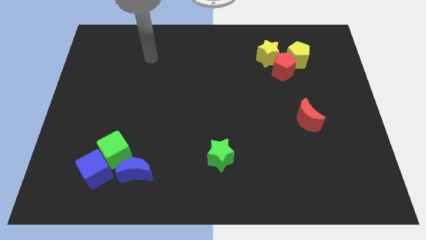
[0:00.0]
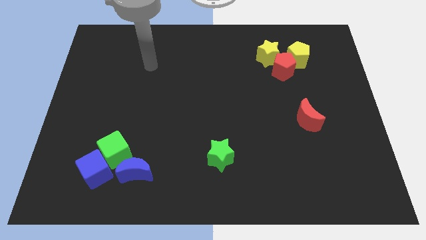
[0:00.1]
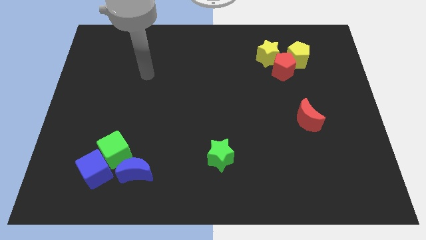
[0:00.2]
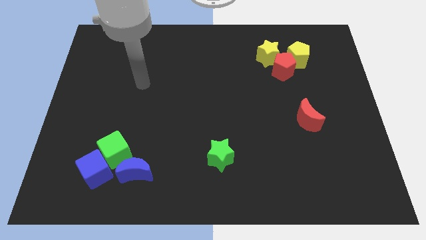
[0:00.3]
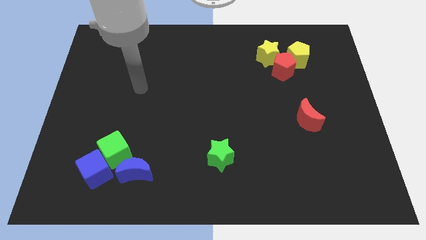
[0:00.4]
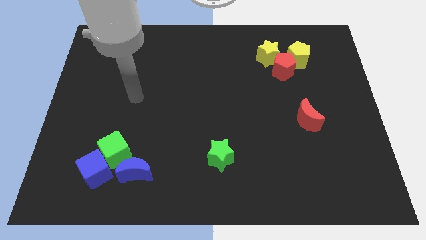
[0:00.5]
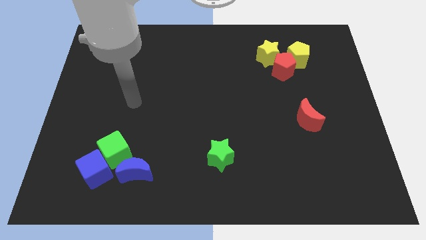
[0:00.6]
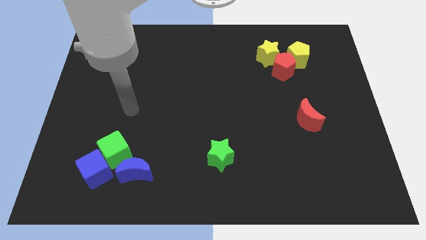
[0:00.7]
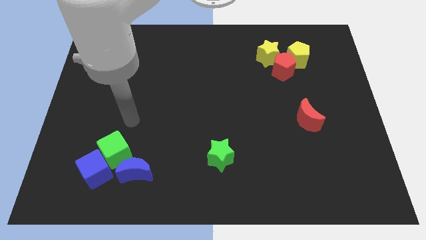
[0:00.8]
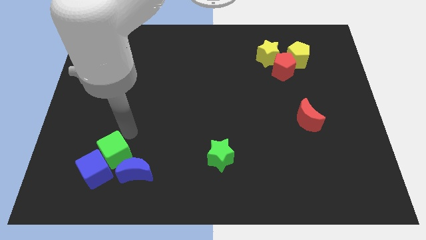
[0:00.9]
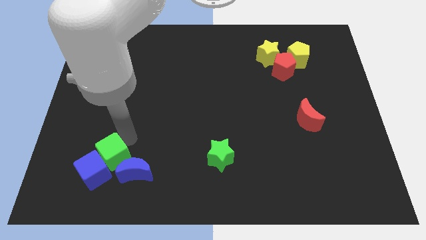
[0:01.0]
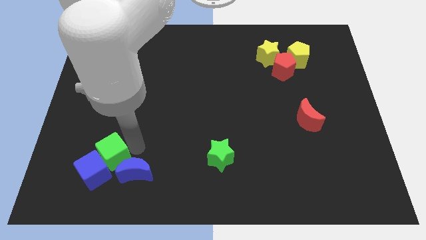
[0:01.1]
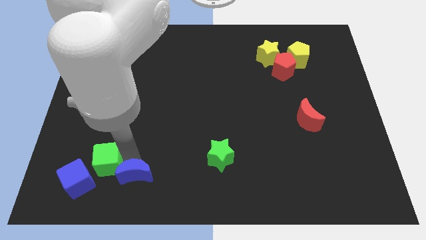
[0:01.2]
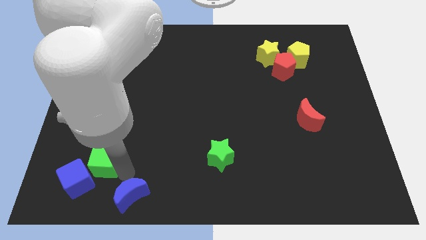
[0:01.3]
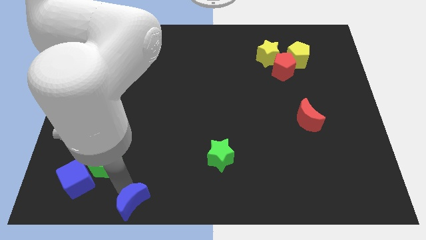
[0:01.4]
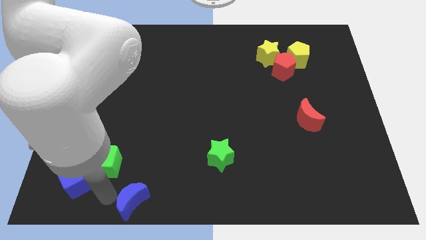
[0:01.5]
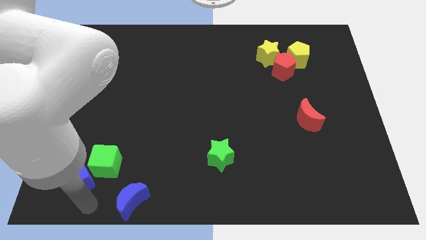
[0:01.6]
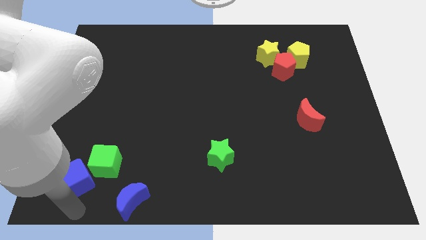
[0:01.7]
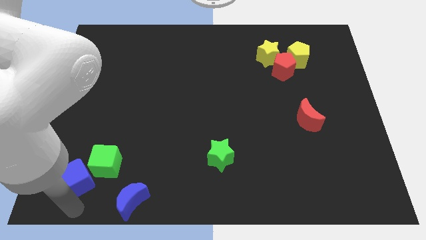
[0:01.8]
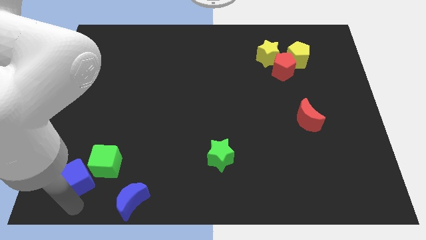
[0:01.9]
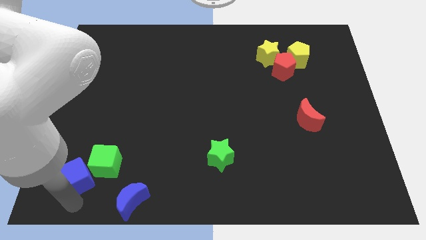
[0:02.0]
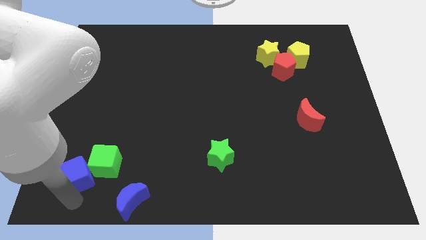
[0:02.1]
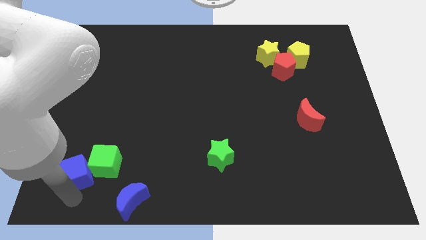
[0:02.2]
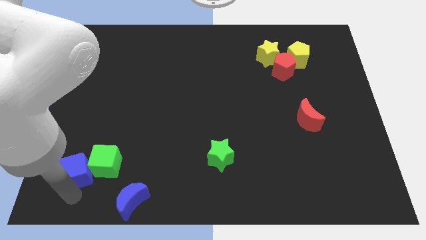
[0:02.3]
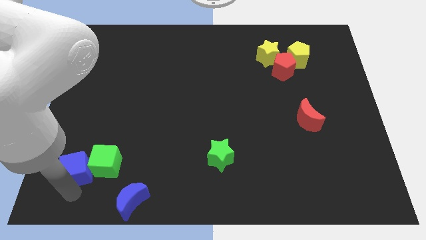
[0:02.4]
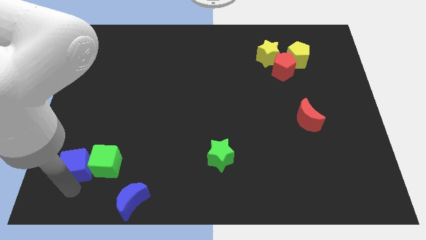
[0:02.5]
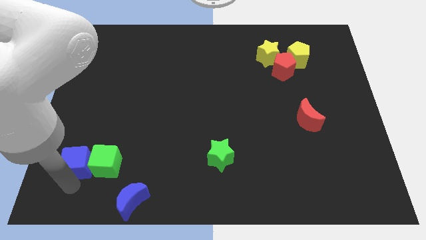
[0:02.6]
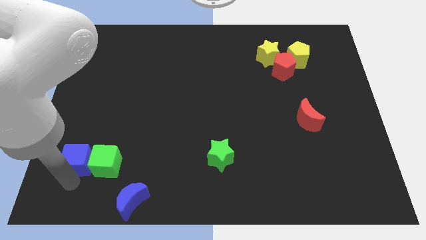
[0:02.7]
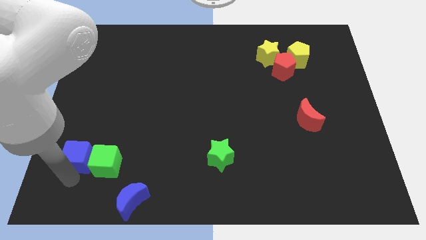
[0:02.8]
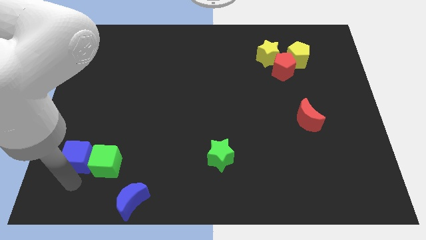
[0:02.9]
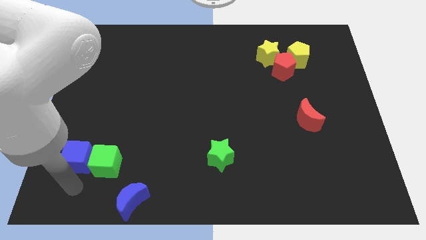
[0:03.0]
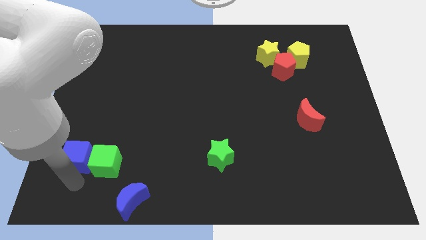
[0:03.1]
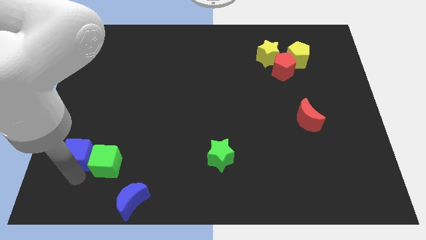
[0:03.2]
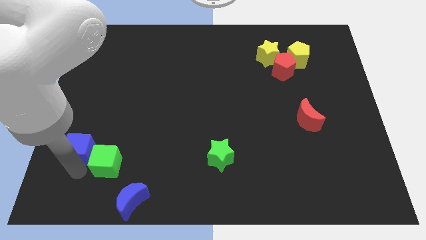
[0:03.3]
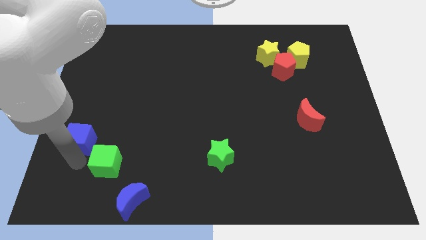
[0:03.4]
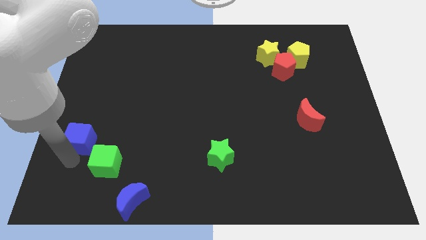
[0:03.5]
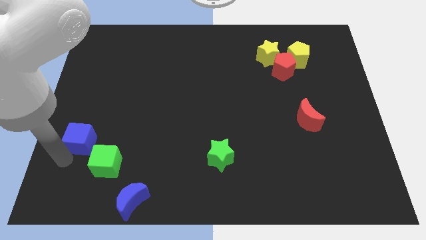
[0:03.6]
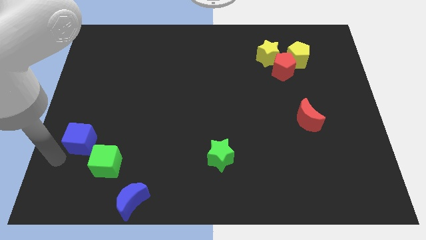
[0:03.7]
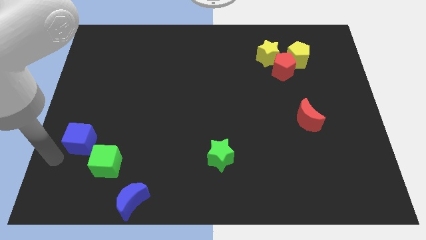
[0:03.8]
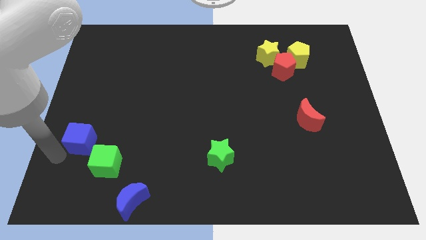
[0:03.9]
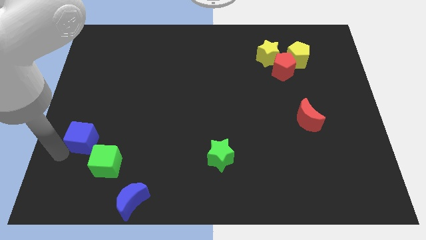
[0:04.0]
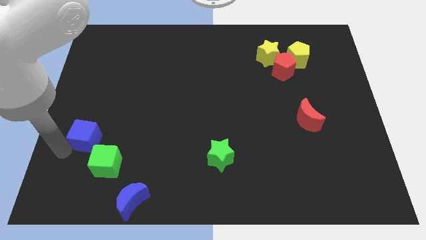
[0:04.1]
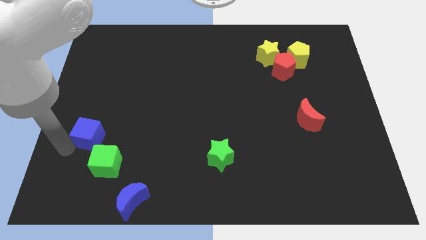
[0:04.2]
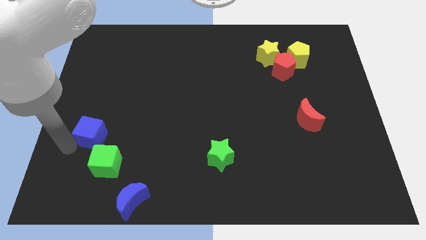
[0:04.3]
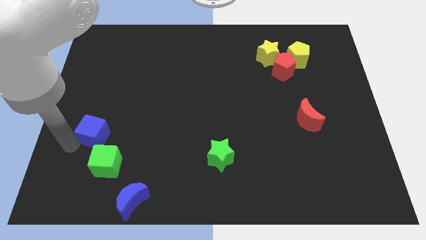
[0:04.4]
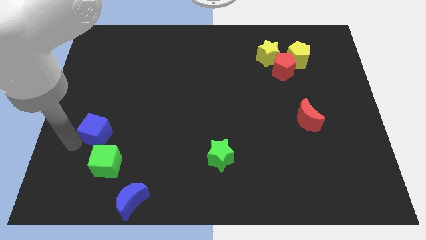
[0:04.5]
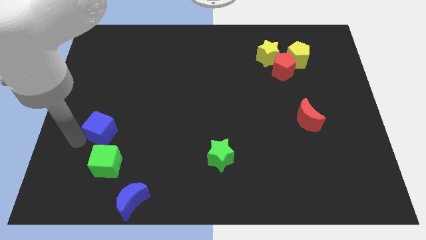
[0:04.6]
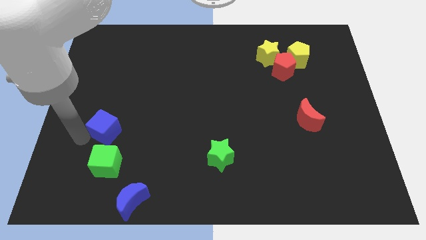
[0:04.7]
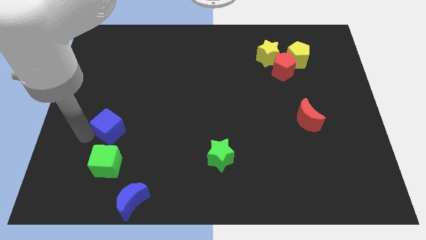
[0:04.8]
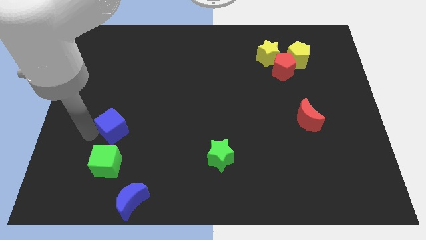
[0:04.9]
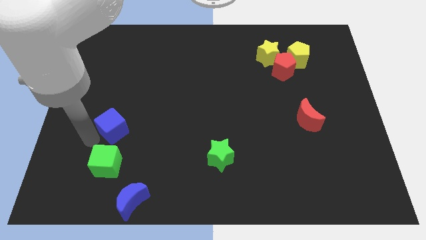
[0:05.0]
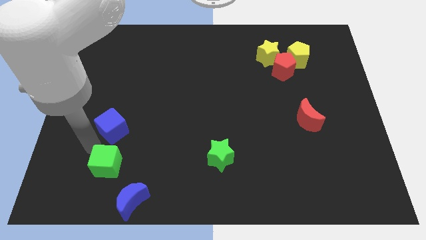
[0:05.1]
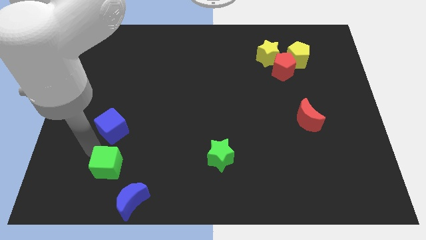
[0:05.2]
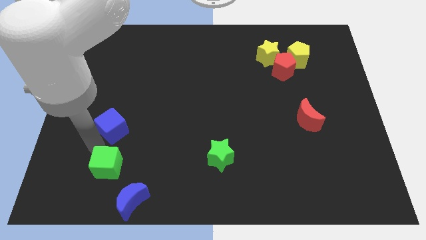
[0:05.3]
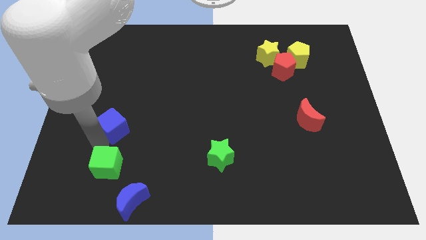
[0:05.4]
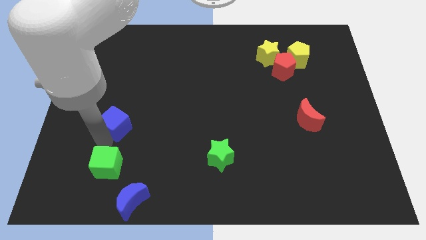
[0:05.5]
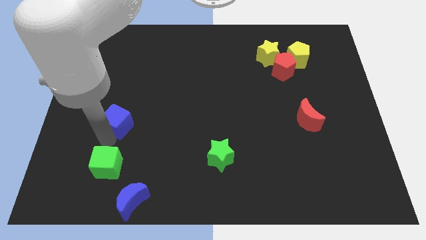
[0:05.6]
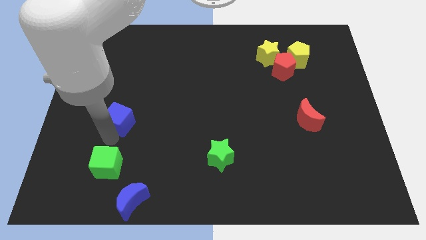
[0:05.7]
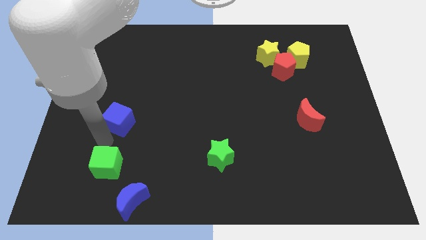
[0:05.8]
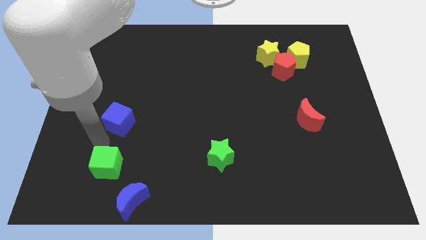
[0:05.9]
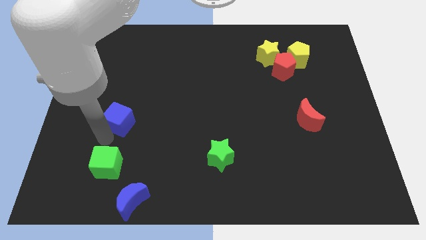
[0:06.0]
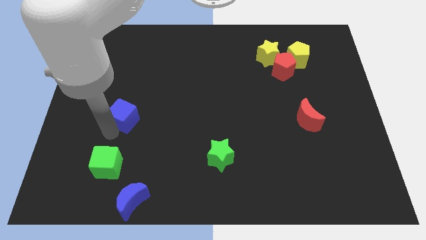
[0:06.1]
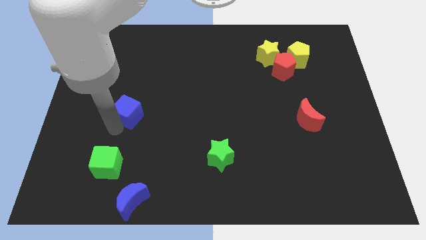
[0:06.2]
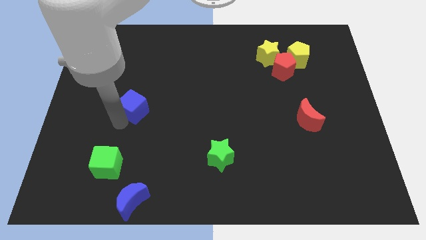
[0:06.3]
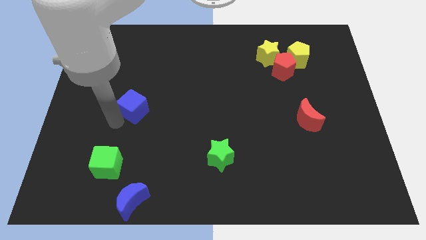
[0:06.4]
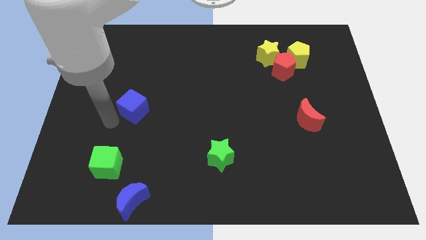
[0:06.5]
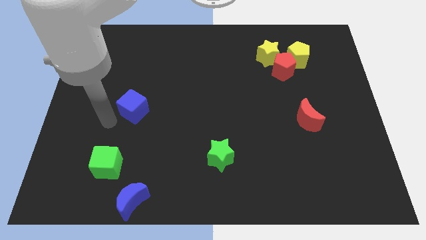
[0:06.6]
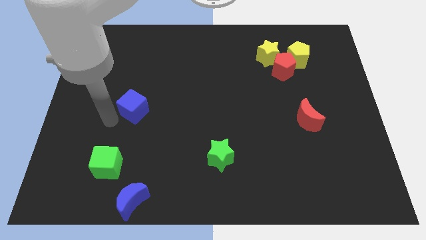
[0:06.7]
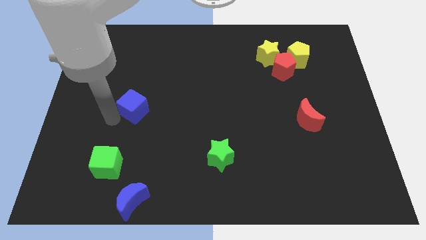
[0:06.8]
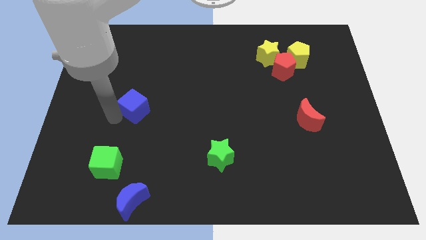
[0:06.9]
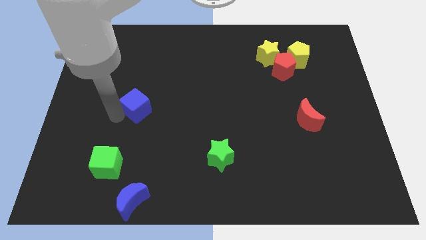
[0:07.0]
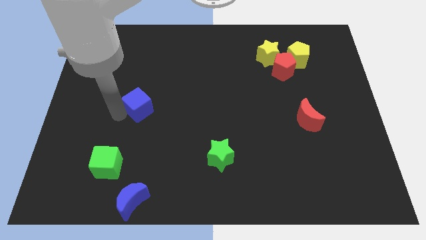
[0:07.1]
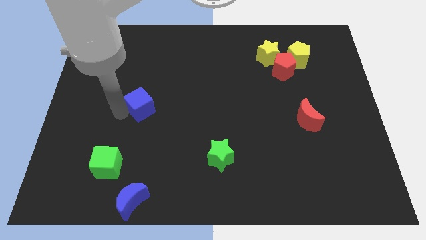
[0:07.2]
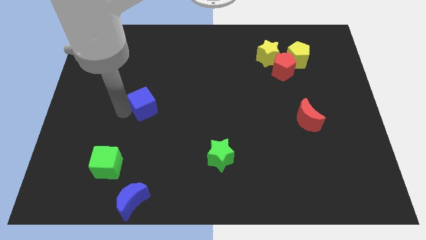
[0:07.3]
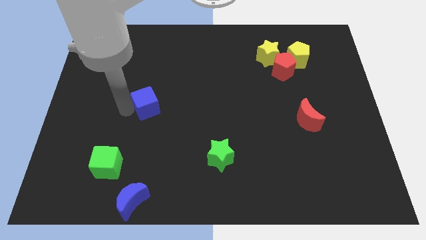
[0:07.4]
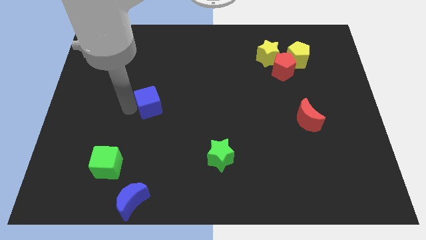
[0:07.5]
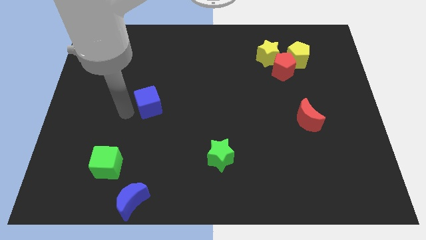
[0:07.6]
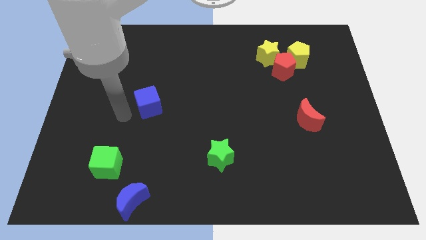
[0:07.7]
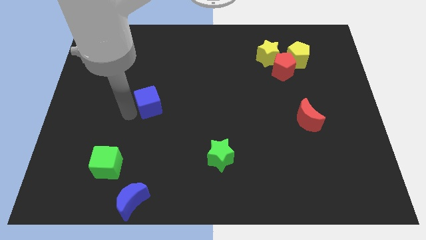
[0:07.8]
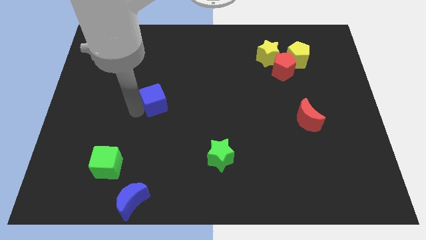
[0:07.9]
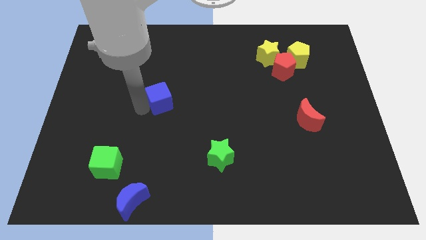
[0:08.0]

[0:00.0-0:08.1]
push the blue cube up and then right

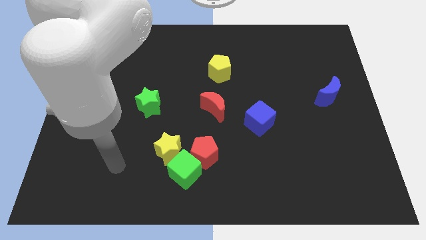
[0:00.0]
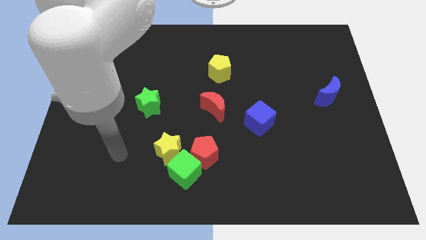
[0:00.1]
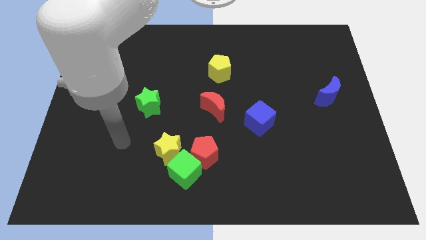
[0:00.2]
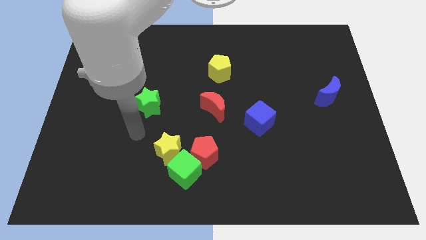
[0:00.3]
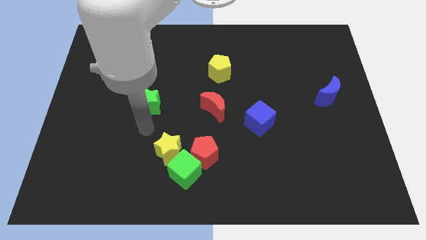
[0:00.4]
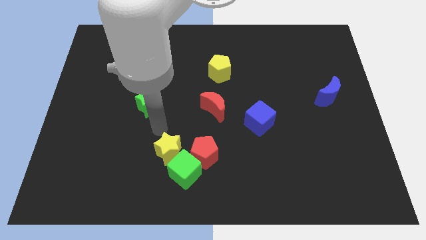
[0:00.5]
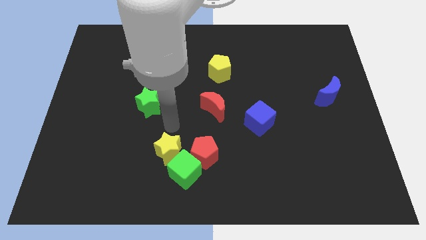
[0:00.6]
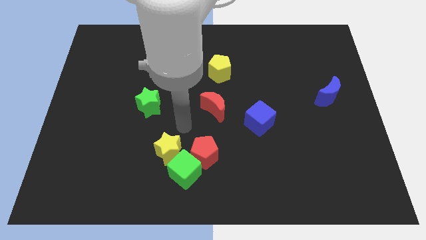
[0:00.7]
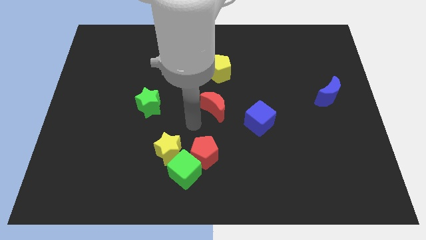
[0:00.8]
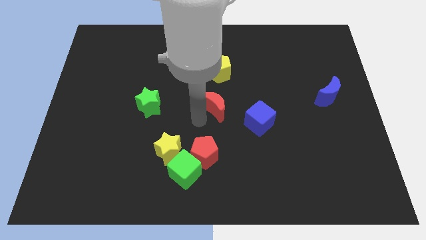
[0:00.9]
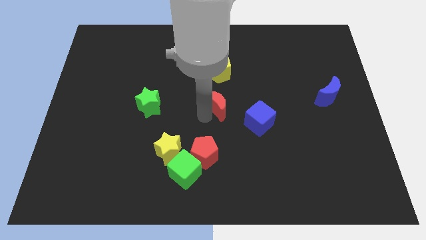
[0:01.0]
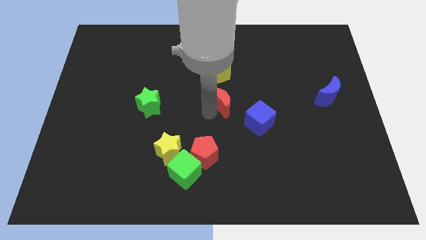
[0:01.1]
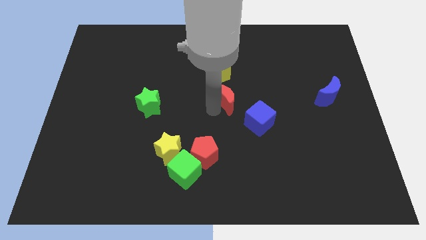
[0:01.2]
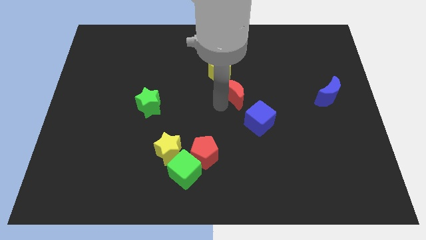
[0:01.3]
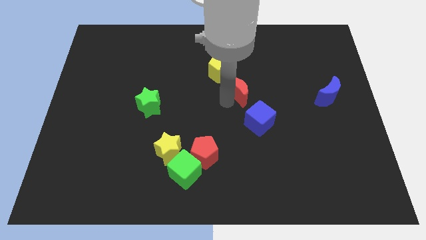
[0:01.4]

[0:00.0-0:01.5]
slide the red moon a little up and to the right
